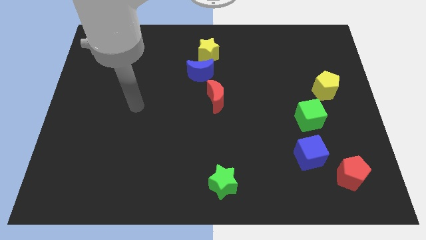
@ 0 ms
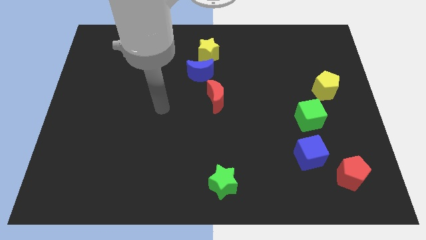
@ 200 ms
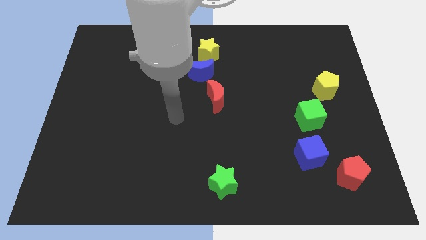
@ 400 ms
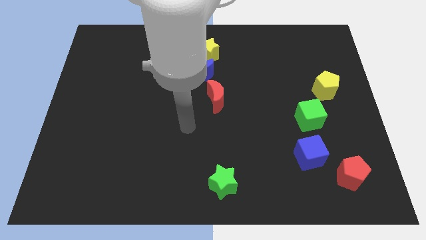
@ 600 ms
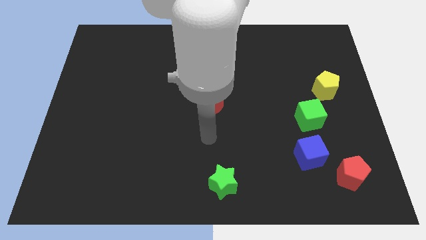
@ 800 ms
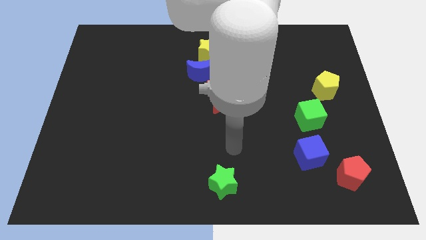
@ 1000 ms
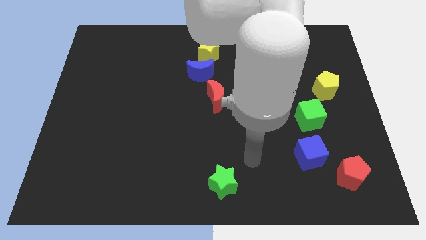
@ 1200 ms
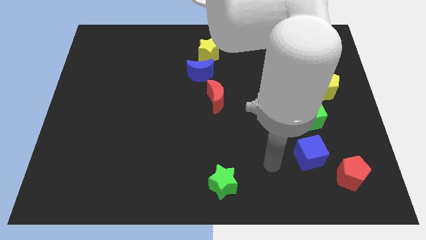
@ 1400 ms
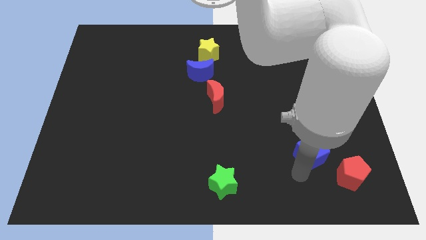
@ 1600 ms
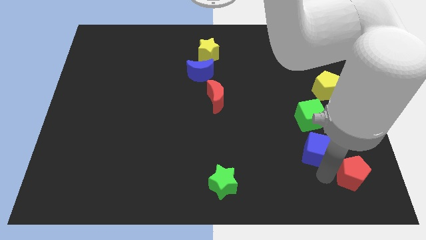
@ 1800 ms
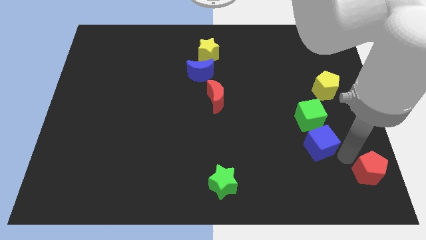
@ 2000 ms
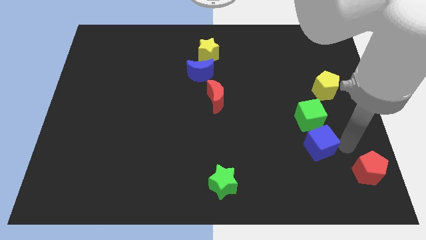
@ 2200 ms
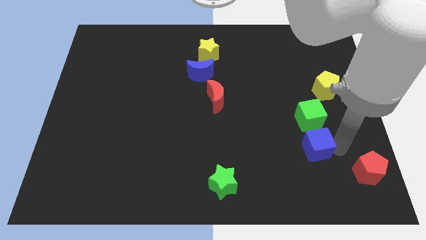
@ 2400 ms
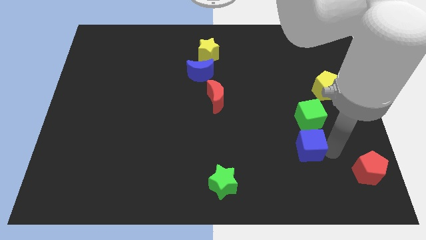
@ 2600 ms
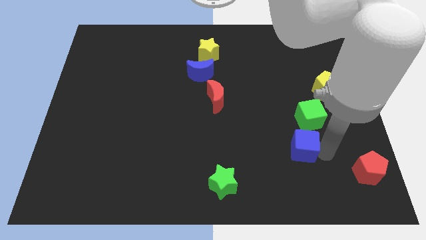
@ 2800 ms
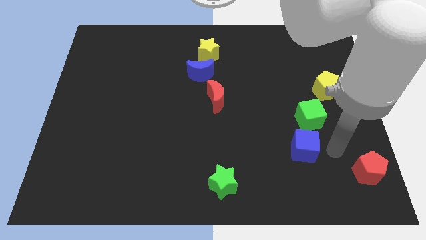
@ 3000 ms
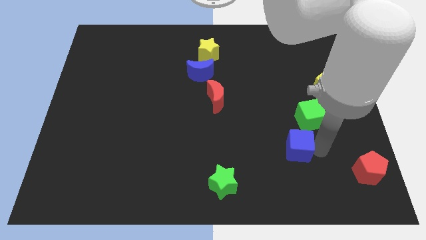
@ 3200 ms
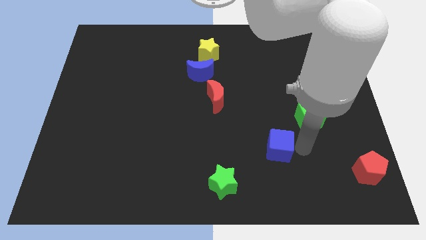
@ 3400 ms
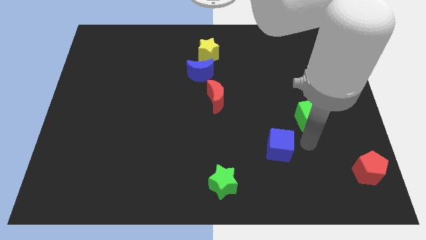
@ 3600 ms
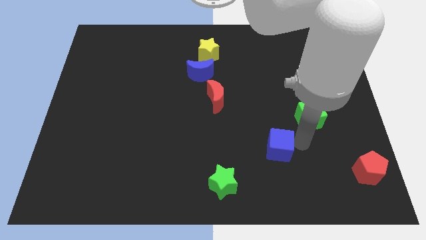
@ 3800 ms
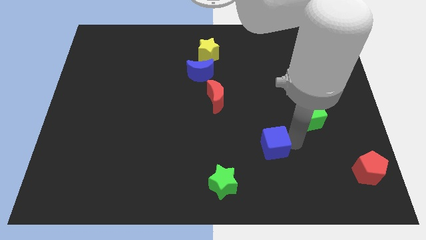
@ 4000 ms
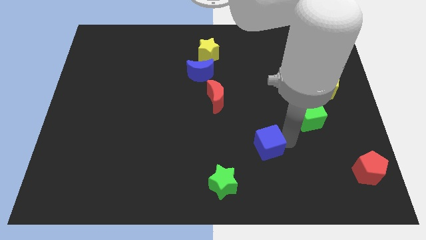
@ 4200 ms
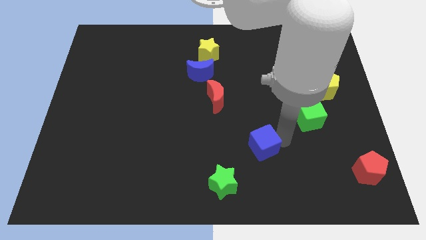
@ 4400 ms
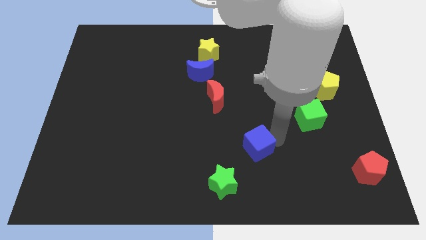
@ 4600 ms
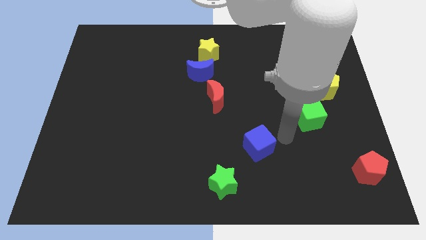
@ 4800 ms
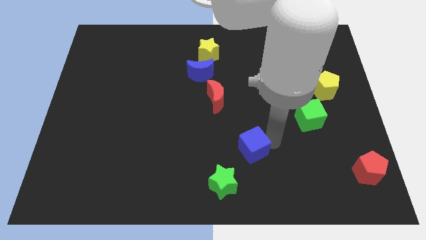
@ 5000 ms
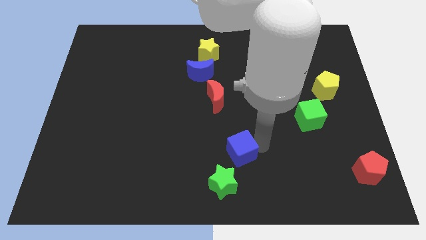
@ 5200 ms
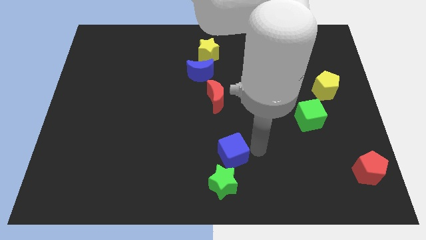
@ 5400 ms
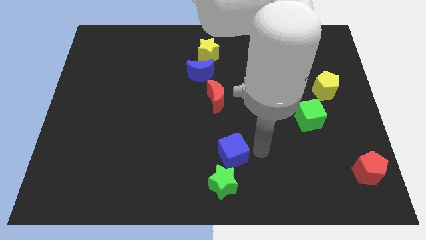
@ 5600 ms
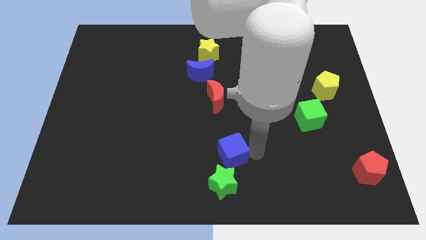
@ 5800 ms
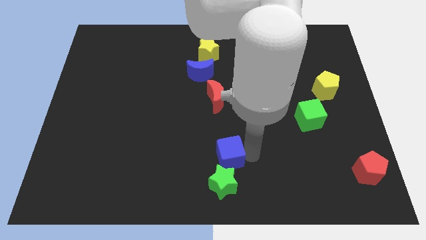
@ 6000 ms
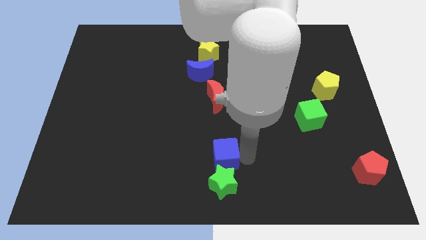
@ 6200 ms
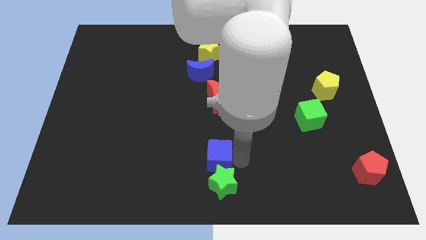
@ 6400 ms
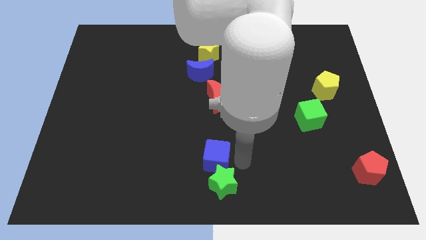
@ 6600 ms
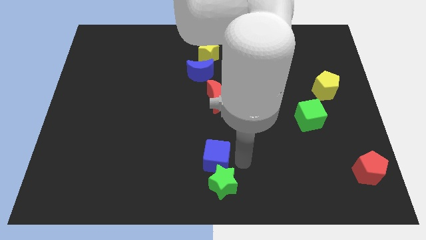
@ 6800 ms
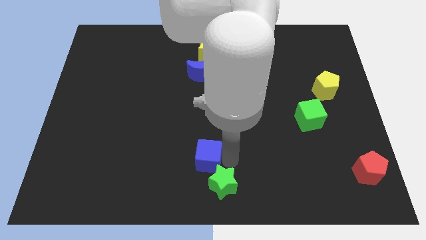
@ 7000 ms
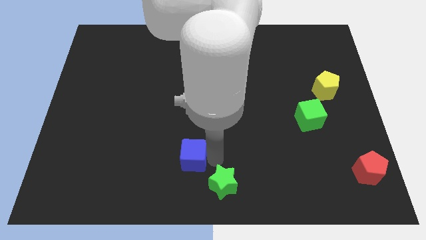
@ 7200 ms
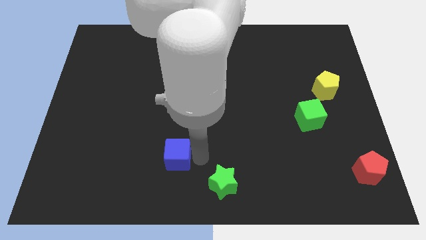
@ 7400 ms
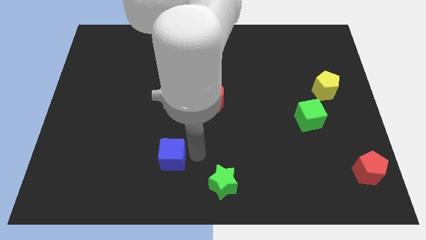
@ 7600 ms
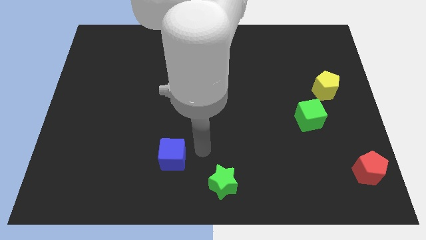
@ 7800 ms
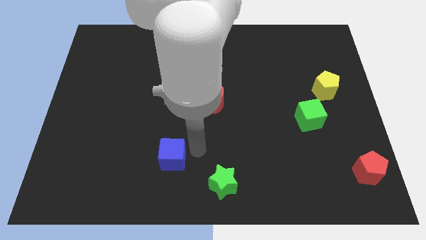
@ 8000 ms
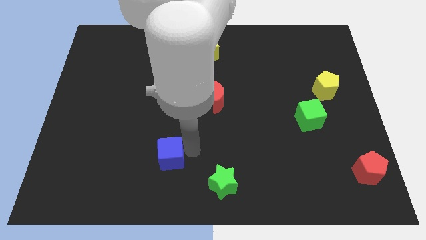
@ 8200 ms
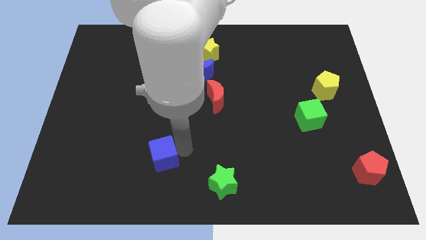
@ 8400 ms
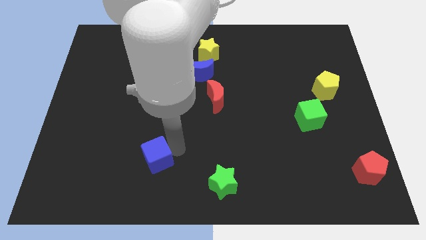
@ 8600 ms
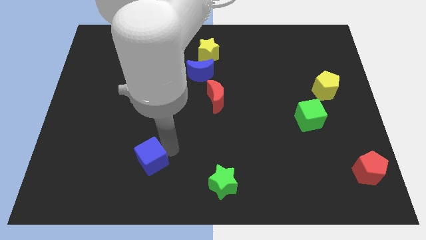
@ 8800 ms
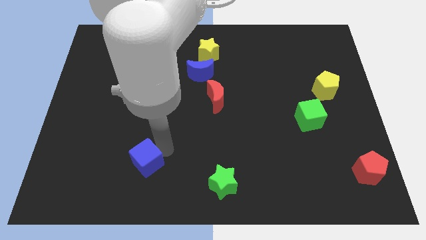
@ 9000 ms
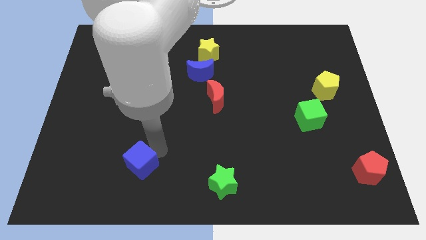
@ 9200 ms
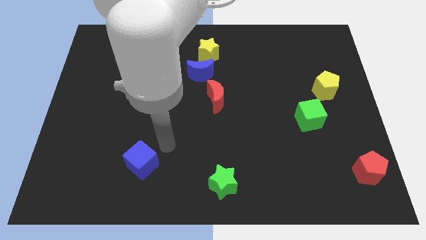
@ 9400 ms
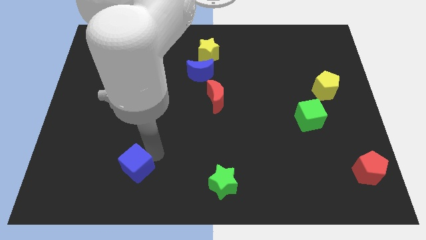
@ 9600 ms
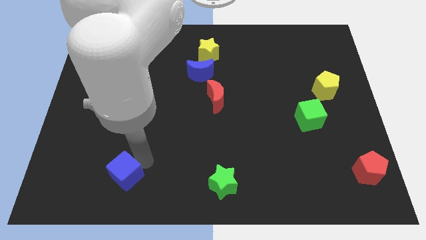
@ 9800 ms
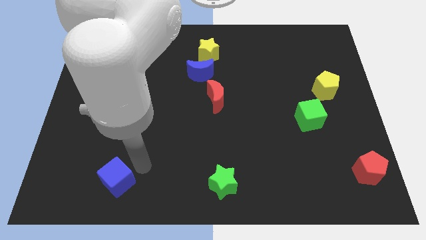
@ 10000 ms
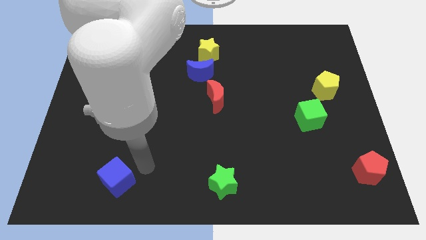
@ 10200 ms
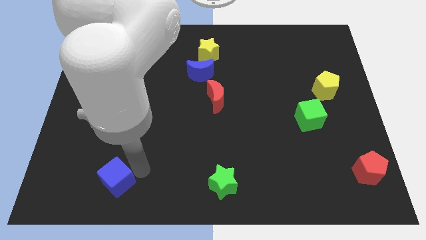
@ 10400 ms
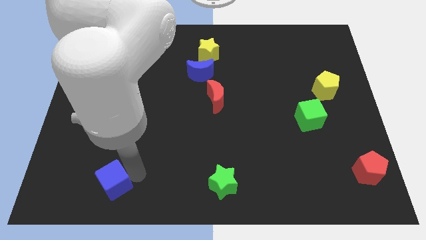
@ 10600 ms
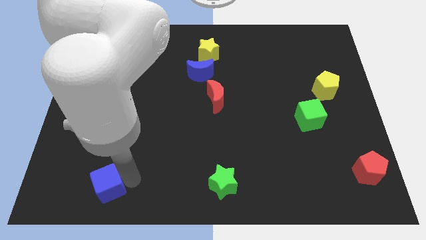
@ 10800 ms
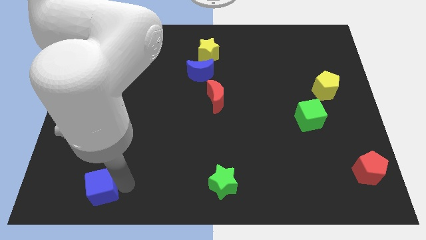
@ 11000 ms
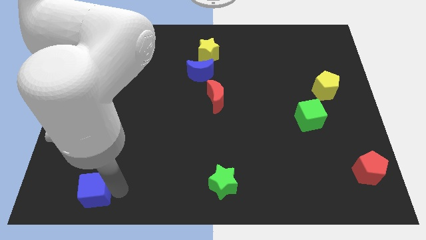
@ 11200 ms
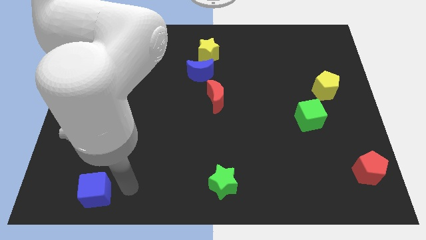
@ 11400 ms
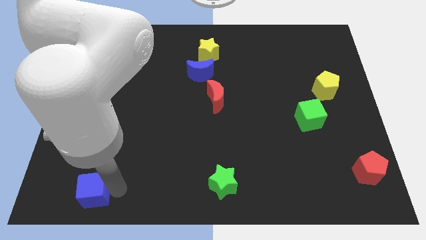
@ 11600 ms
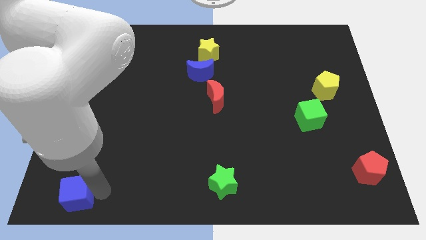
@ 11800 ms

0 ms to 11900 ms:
slide the blue cube to the bottom left of the board
